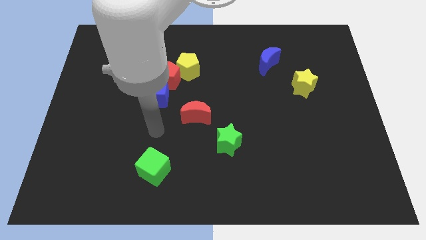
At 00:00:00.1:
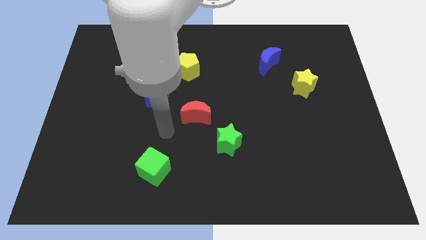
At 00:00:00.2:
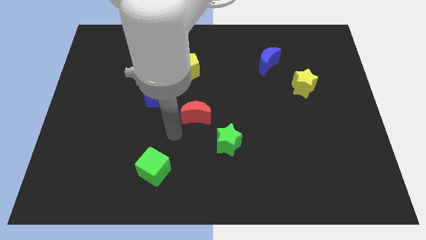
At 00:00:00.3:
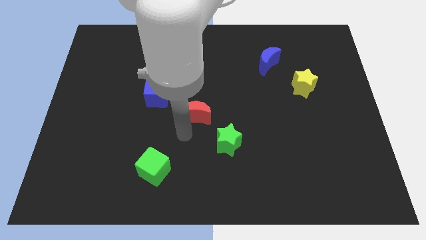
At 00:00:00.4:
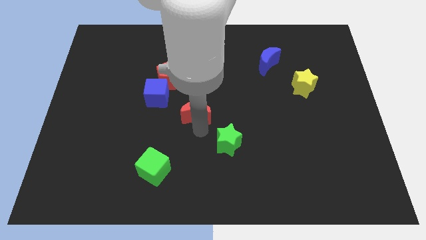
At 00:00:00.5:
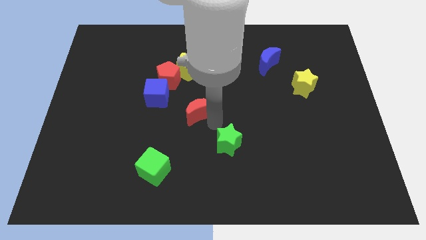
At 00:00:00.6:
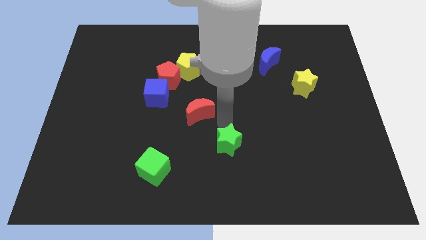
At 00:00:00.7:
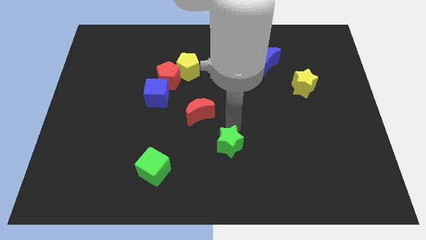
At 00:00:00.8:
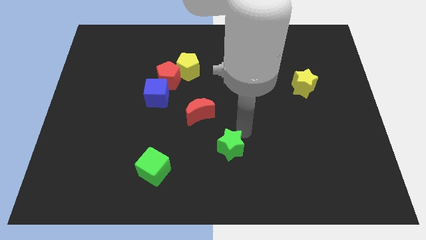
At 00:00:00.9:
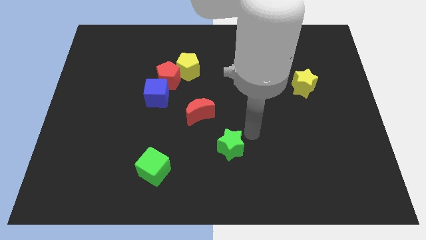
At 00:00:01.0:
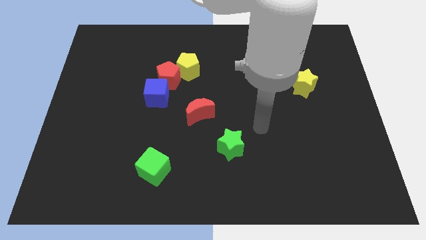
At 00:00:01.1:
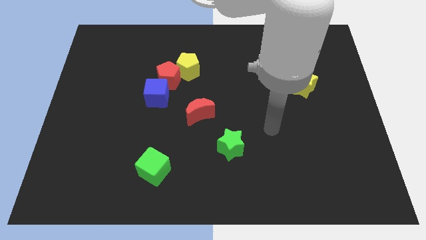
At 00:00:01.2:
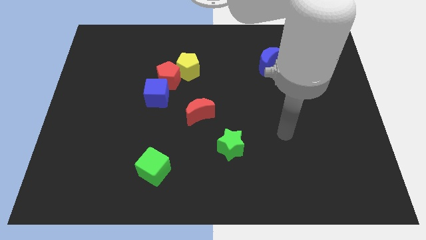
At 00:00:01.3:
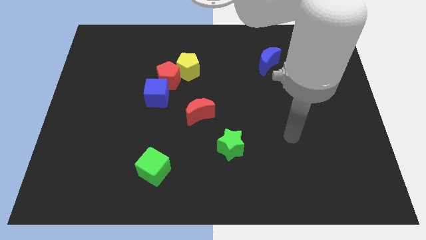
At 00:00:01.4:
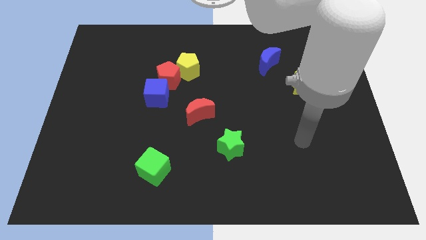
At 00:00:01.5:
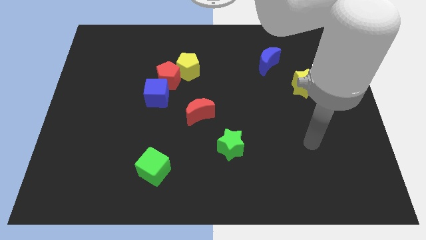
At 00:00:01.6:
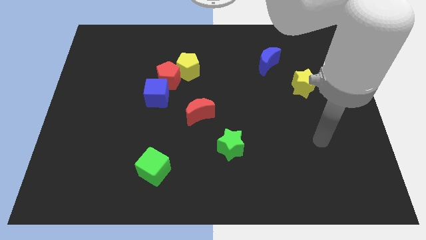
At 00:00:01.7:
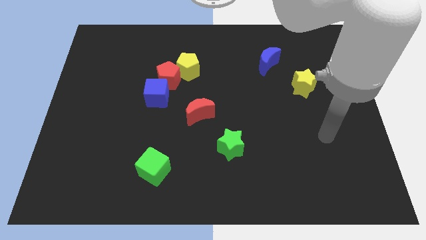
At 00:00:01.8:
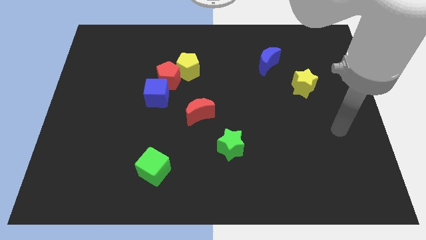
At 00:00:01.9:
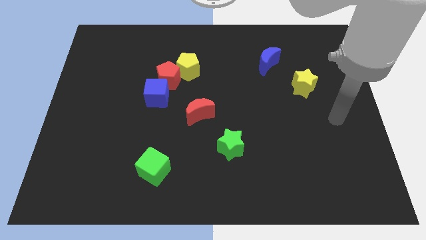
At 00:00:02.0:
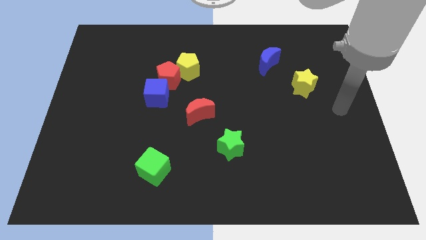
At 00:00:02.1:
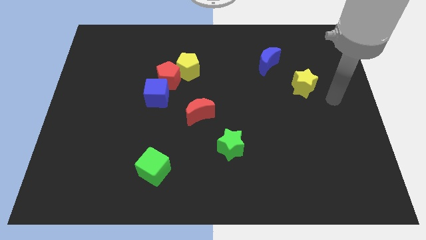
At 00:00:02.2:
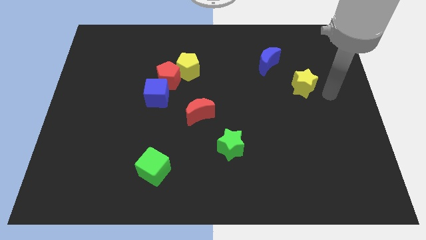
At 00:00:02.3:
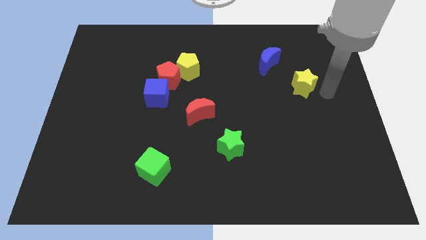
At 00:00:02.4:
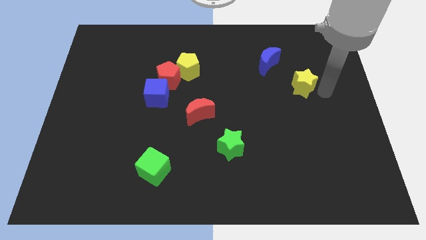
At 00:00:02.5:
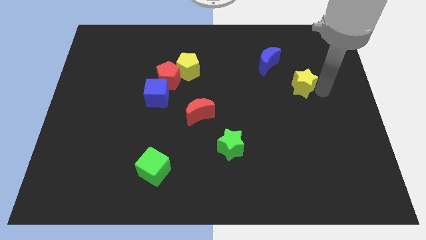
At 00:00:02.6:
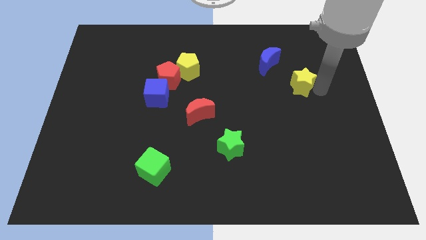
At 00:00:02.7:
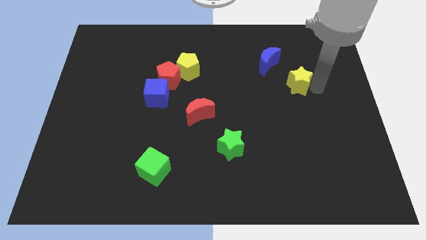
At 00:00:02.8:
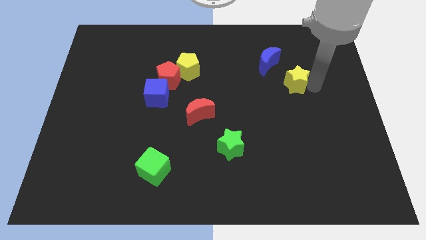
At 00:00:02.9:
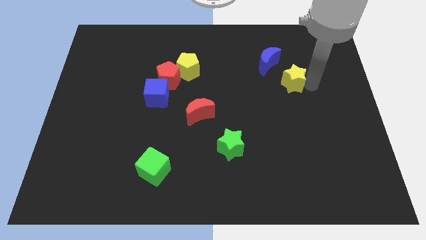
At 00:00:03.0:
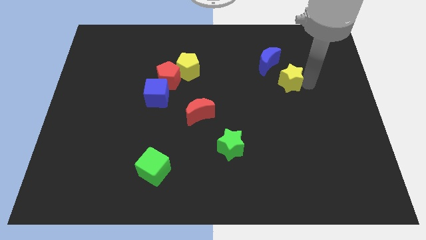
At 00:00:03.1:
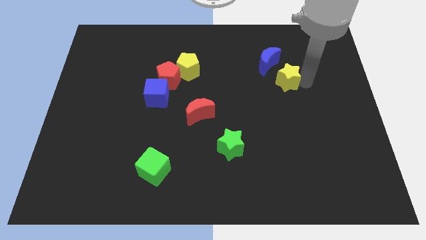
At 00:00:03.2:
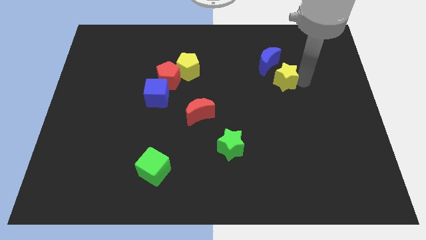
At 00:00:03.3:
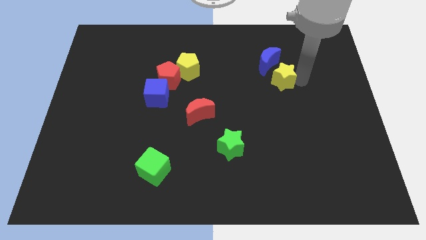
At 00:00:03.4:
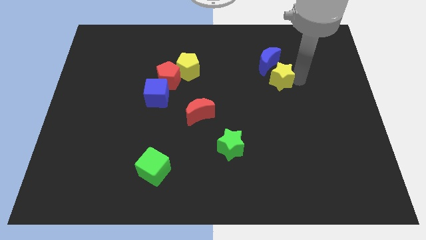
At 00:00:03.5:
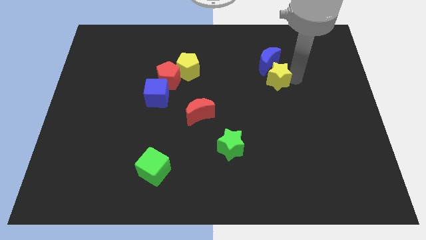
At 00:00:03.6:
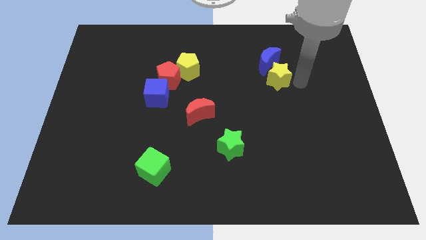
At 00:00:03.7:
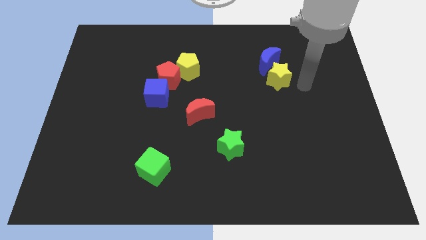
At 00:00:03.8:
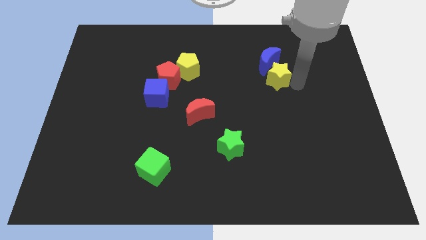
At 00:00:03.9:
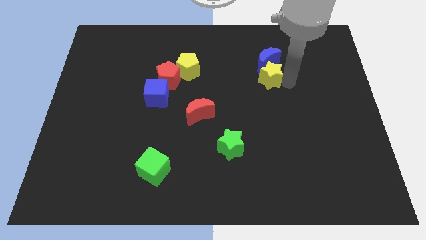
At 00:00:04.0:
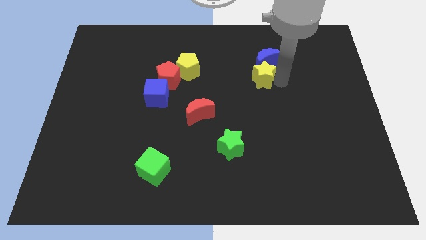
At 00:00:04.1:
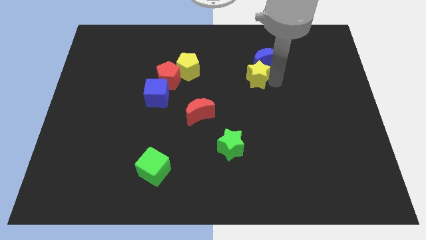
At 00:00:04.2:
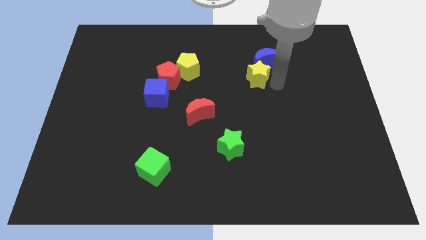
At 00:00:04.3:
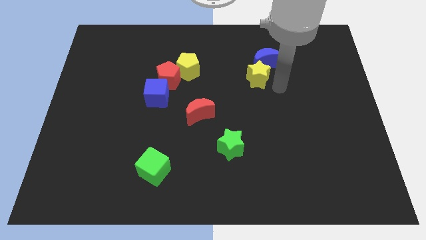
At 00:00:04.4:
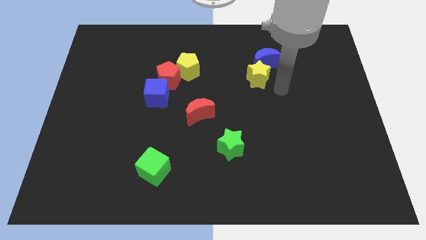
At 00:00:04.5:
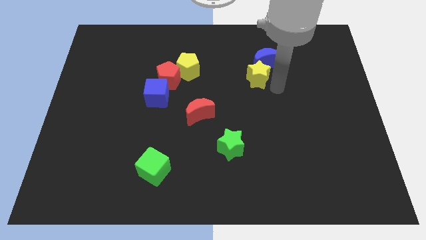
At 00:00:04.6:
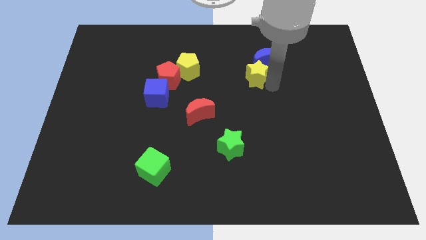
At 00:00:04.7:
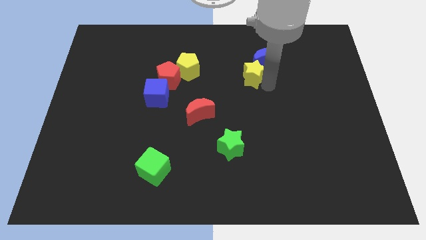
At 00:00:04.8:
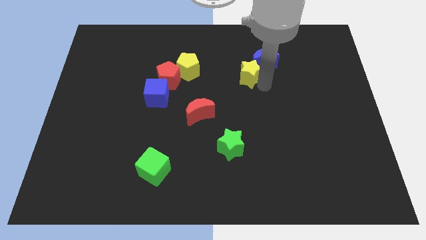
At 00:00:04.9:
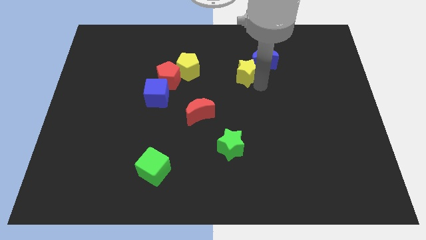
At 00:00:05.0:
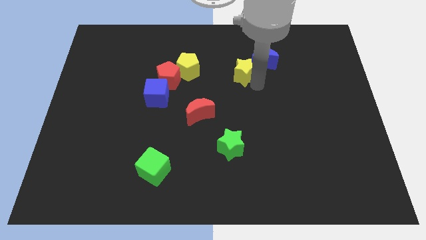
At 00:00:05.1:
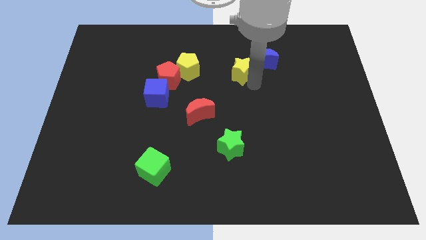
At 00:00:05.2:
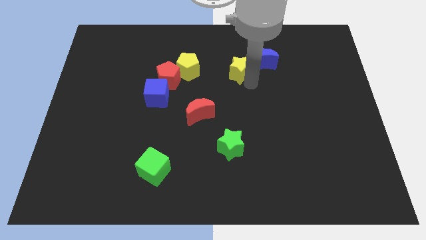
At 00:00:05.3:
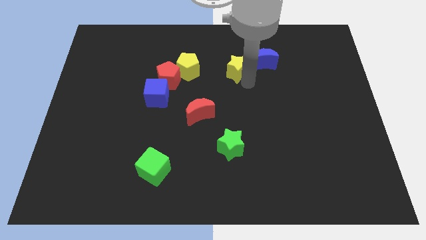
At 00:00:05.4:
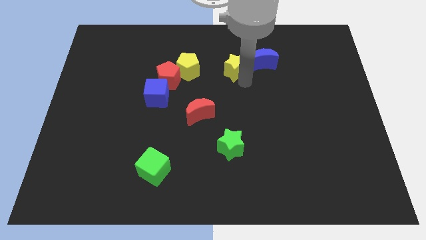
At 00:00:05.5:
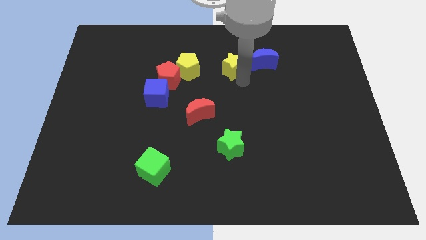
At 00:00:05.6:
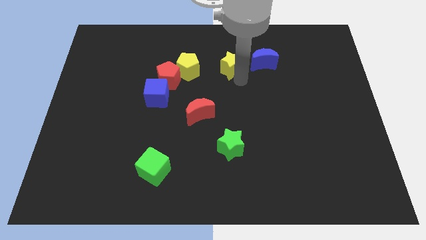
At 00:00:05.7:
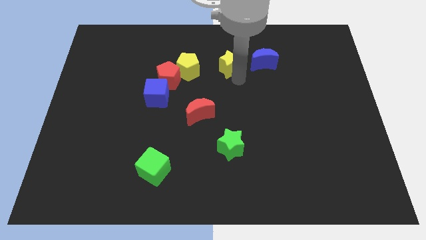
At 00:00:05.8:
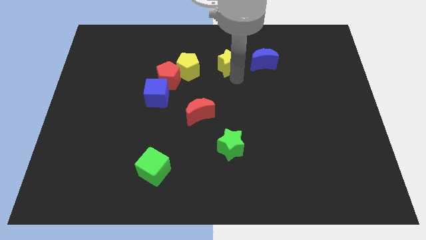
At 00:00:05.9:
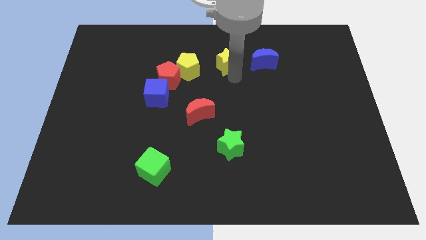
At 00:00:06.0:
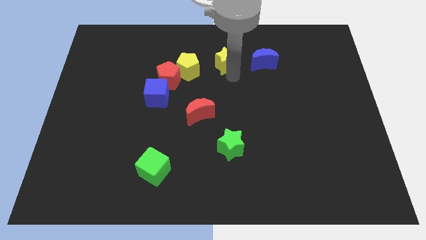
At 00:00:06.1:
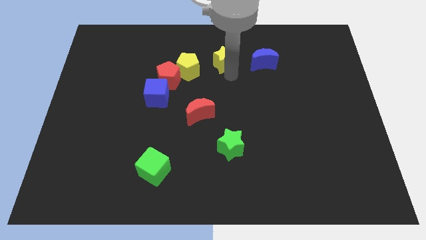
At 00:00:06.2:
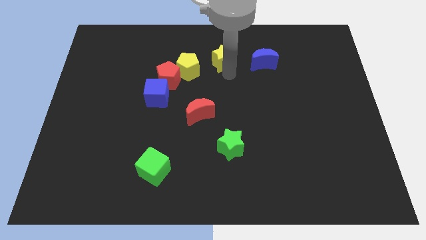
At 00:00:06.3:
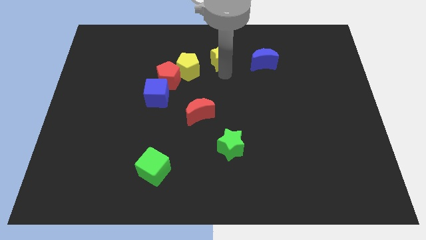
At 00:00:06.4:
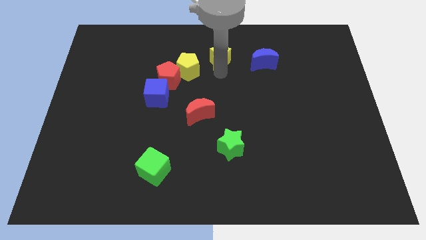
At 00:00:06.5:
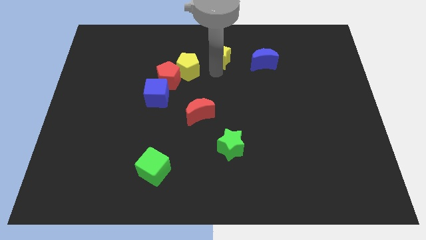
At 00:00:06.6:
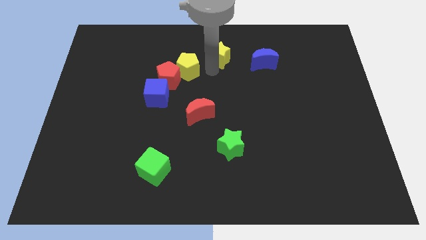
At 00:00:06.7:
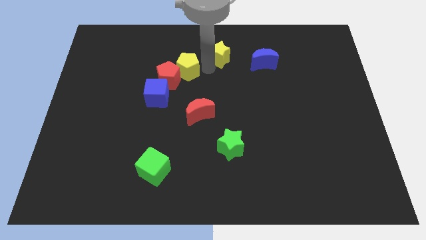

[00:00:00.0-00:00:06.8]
slide the yellow star to the towards your base

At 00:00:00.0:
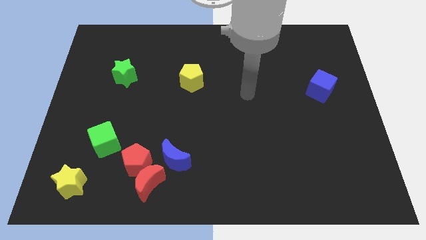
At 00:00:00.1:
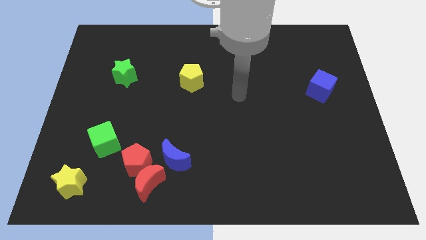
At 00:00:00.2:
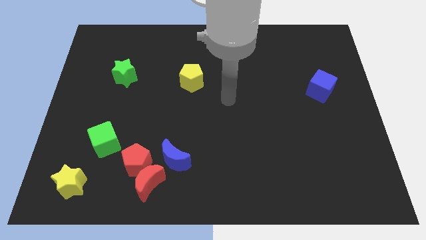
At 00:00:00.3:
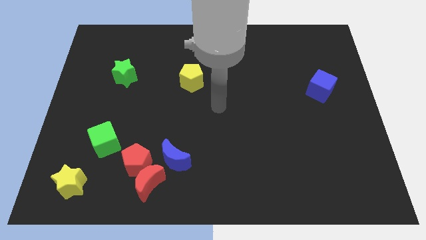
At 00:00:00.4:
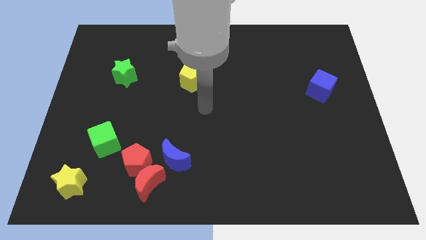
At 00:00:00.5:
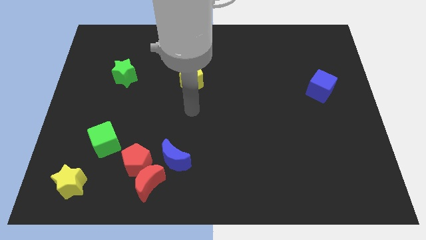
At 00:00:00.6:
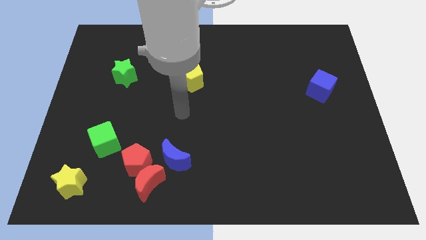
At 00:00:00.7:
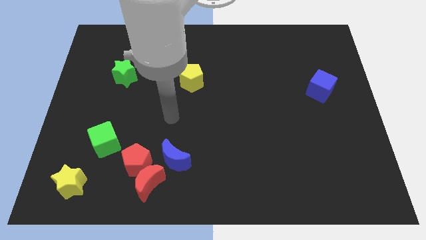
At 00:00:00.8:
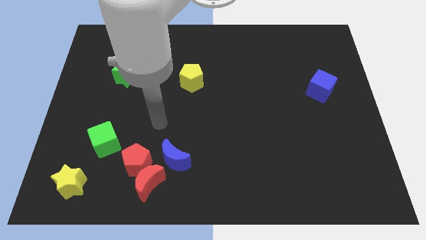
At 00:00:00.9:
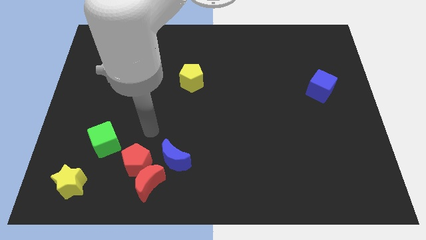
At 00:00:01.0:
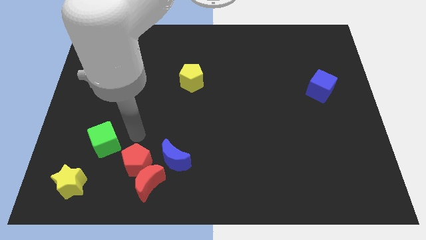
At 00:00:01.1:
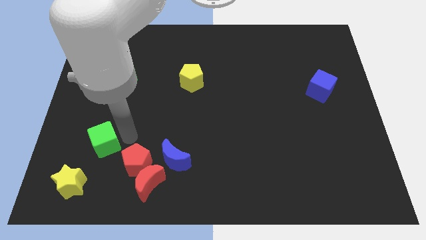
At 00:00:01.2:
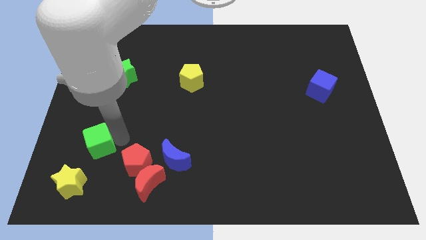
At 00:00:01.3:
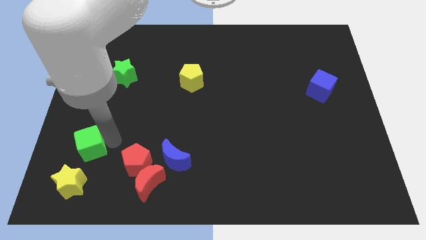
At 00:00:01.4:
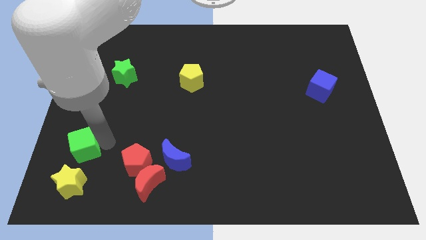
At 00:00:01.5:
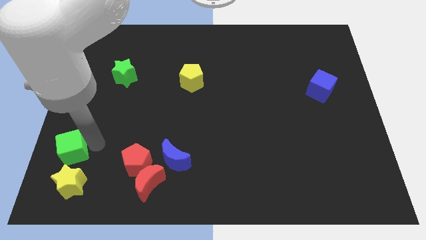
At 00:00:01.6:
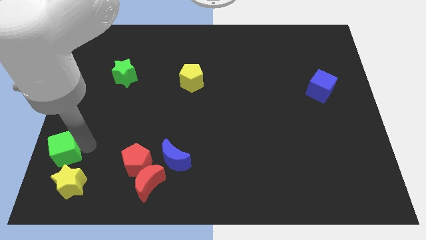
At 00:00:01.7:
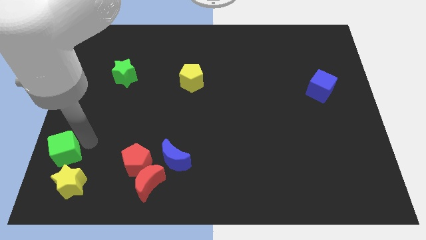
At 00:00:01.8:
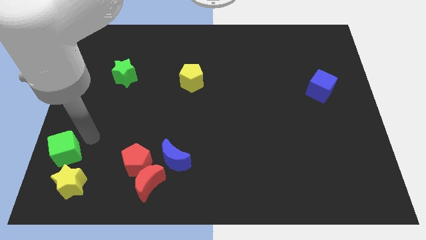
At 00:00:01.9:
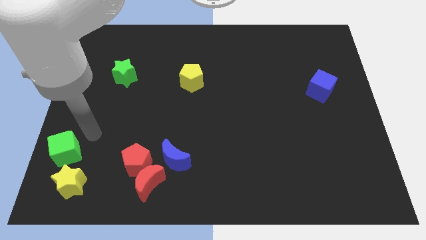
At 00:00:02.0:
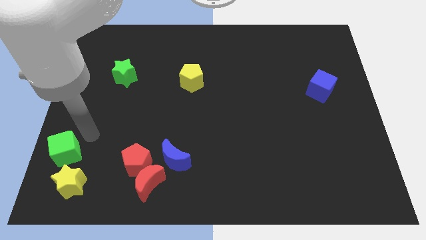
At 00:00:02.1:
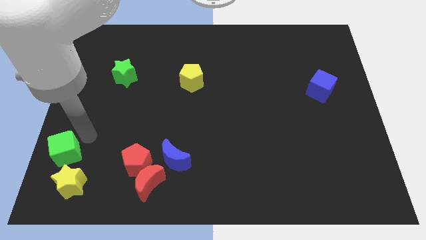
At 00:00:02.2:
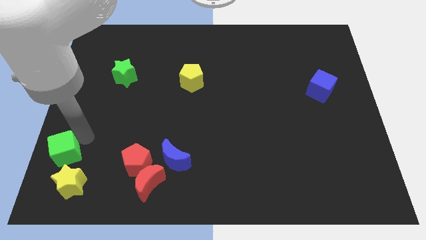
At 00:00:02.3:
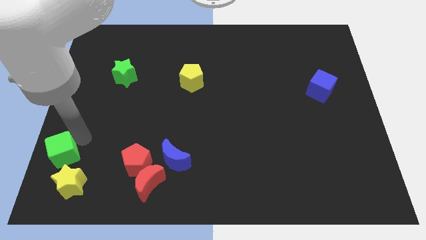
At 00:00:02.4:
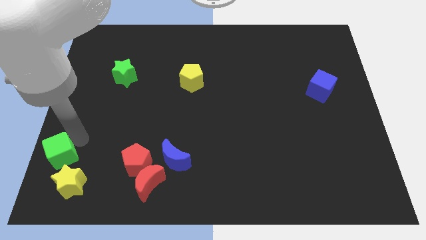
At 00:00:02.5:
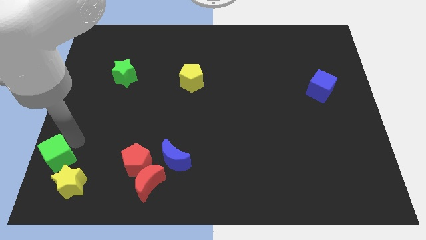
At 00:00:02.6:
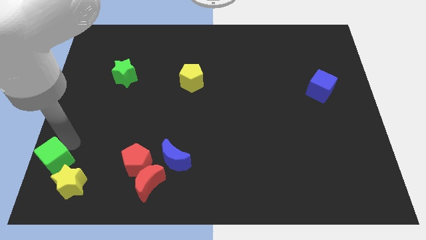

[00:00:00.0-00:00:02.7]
push the green cube to the lower left corner
